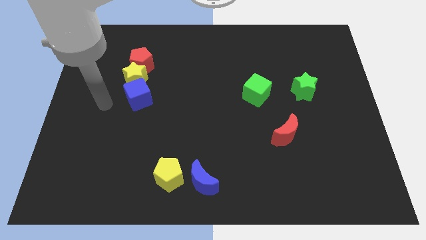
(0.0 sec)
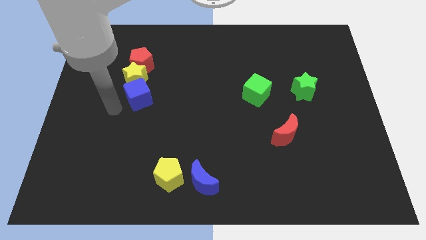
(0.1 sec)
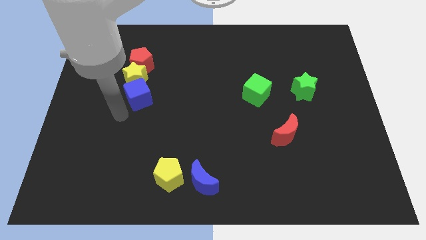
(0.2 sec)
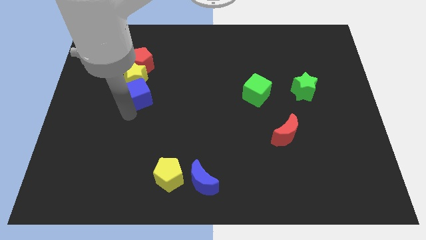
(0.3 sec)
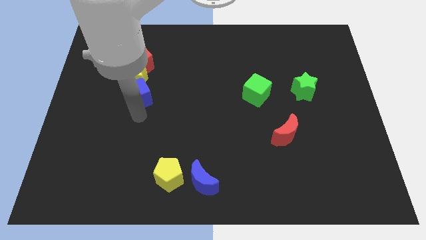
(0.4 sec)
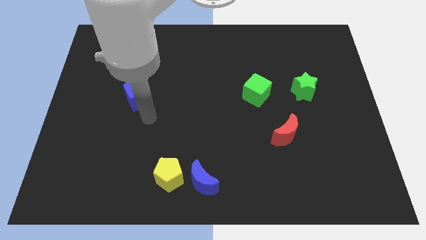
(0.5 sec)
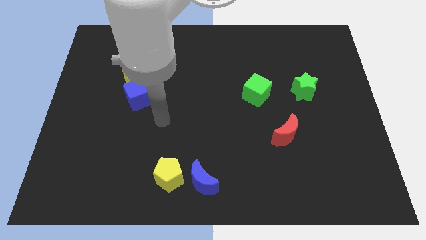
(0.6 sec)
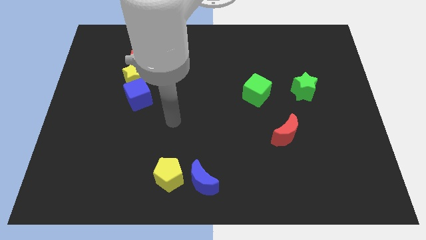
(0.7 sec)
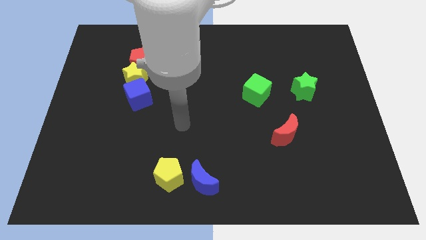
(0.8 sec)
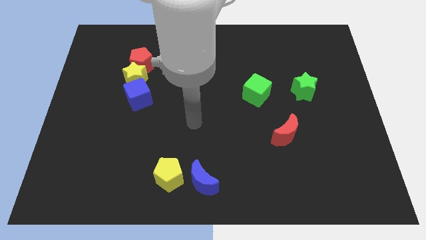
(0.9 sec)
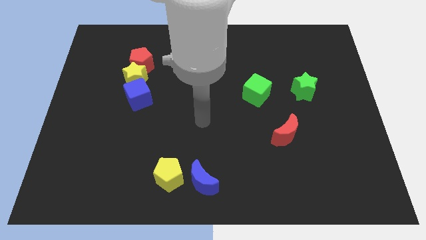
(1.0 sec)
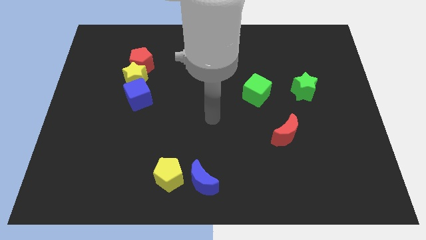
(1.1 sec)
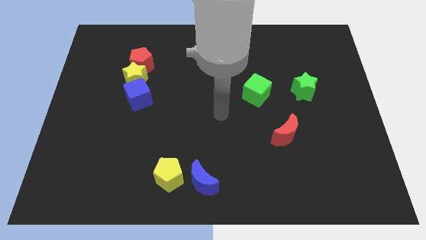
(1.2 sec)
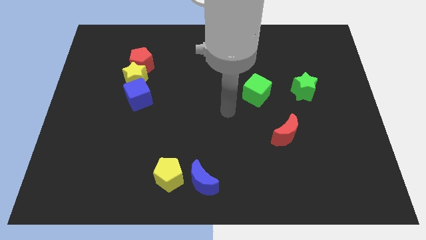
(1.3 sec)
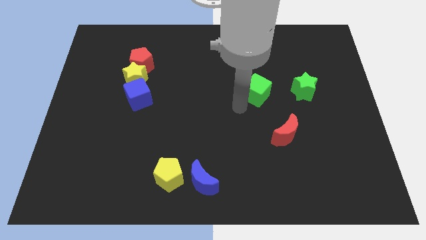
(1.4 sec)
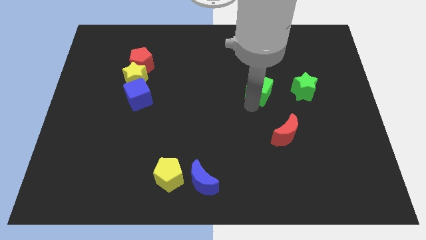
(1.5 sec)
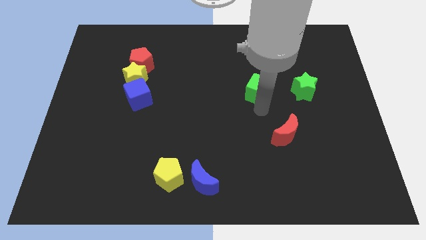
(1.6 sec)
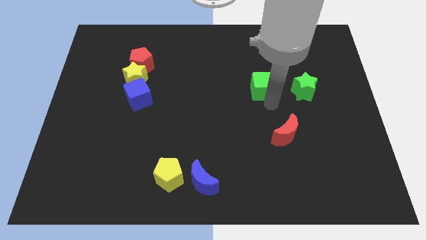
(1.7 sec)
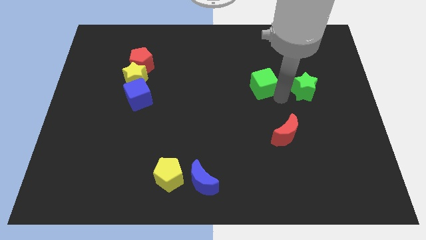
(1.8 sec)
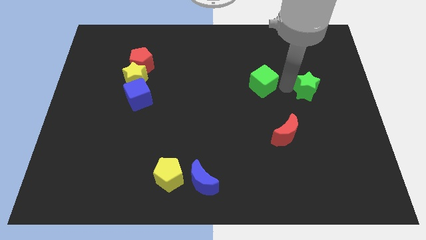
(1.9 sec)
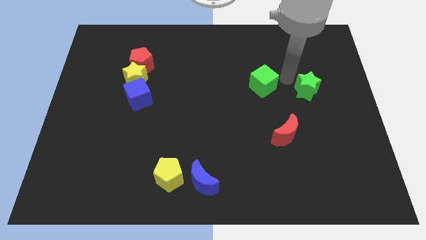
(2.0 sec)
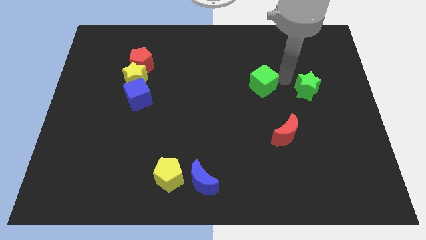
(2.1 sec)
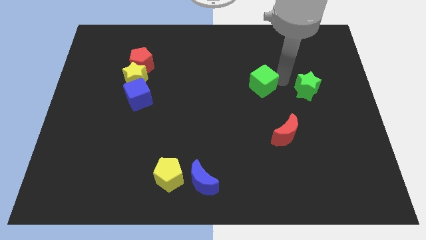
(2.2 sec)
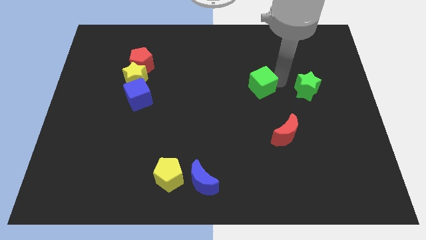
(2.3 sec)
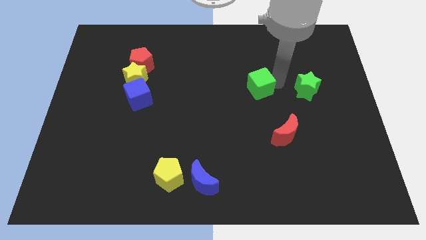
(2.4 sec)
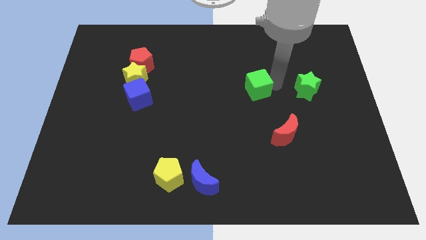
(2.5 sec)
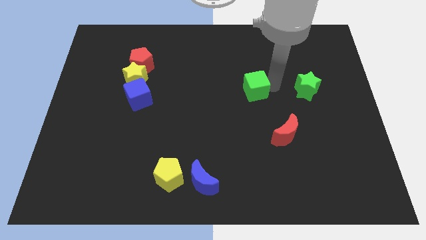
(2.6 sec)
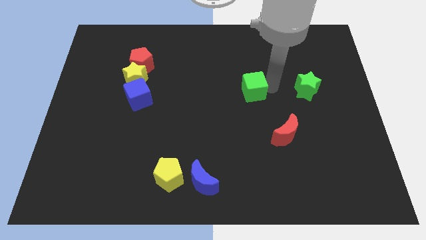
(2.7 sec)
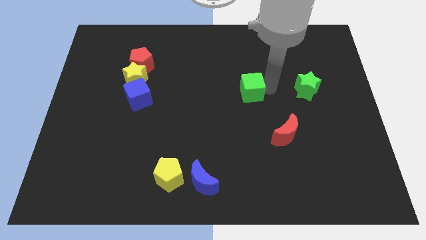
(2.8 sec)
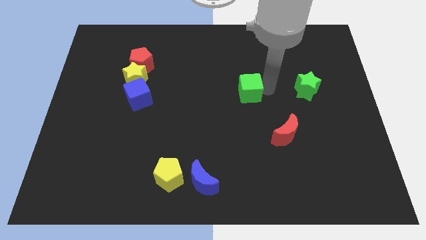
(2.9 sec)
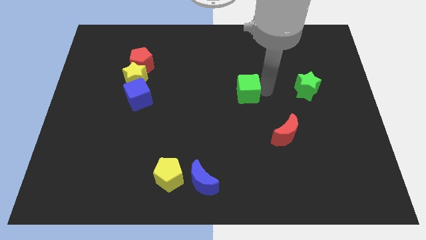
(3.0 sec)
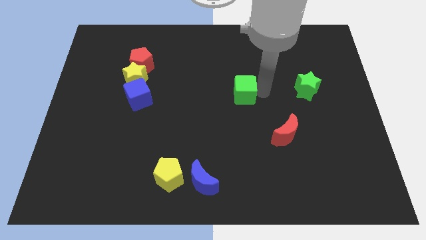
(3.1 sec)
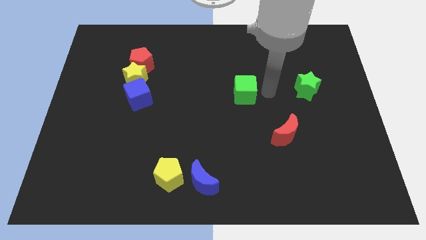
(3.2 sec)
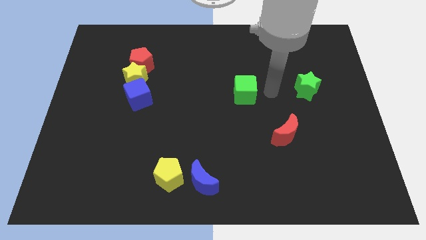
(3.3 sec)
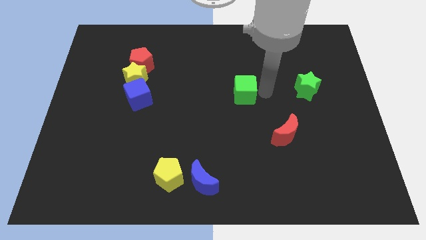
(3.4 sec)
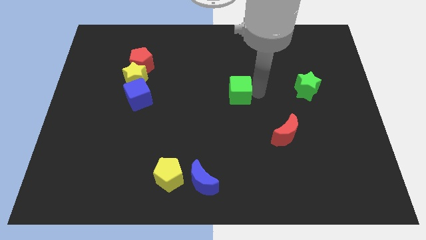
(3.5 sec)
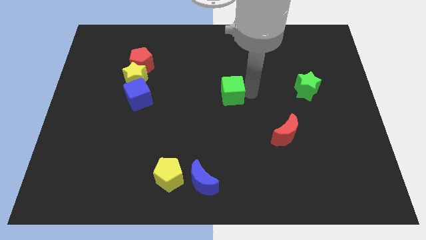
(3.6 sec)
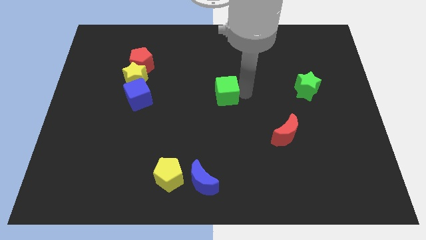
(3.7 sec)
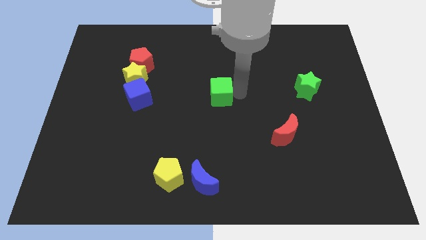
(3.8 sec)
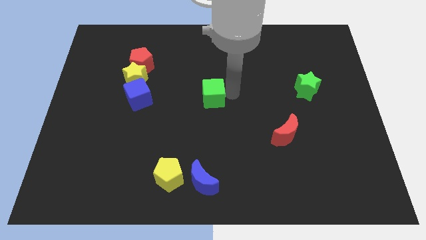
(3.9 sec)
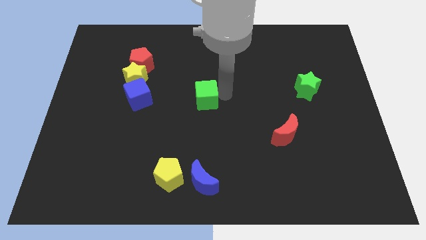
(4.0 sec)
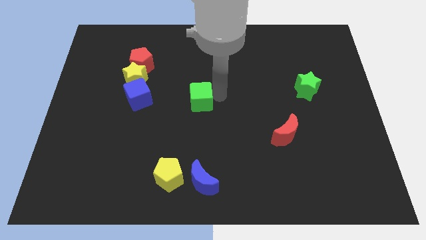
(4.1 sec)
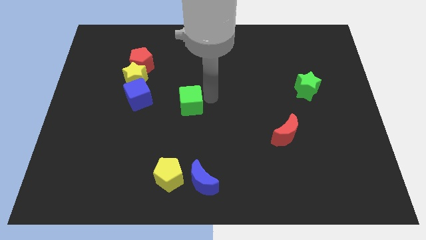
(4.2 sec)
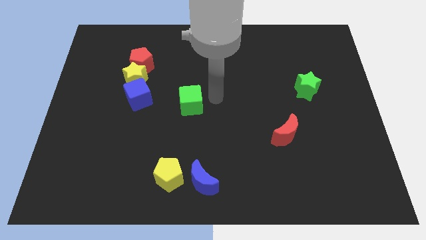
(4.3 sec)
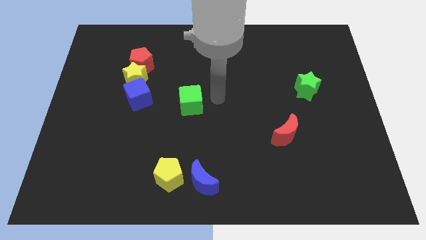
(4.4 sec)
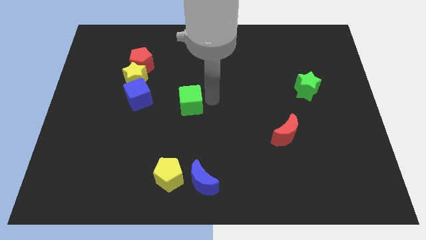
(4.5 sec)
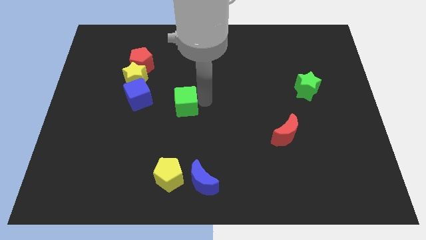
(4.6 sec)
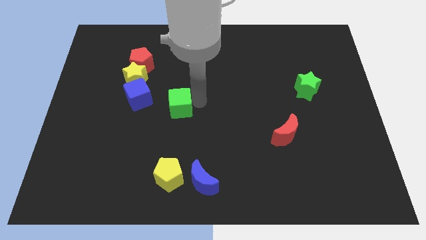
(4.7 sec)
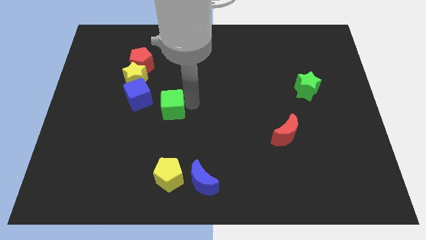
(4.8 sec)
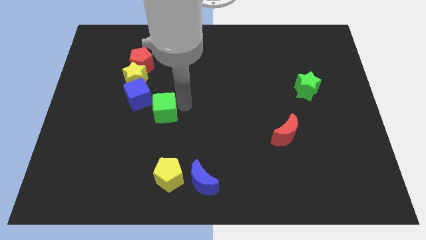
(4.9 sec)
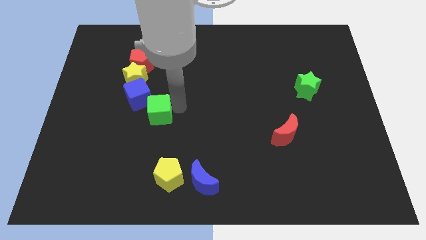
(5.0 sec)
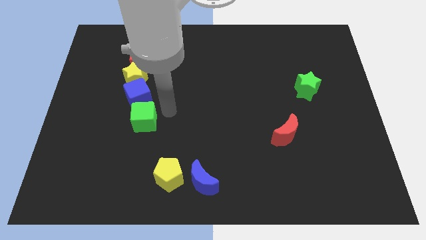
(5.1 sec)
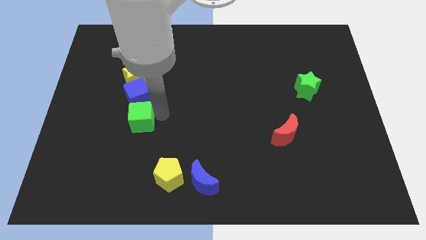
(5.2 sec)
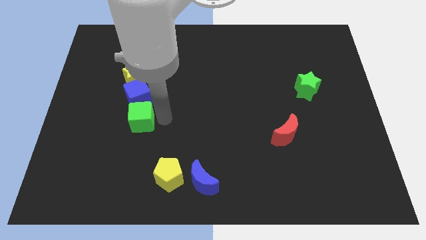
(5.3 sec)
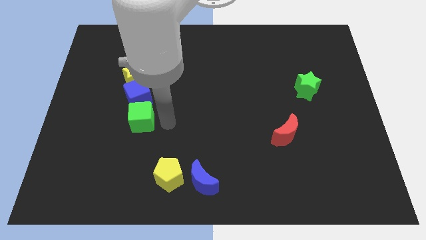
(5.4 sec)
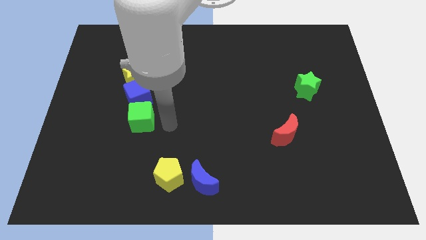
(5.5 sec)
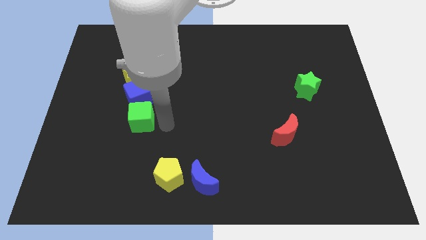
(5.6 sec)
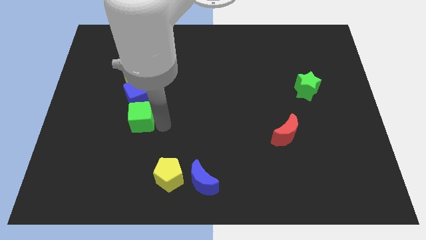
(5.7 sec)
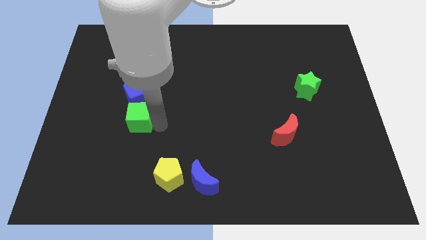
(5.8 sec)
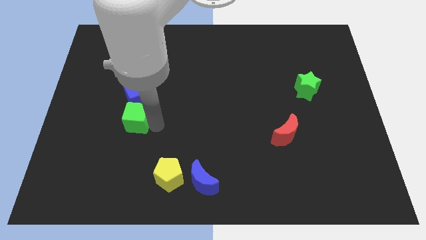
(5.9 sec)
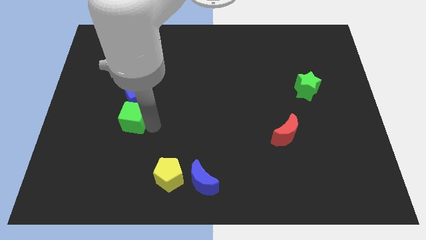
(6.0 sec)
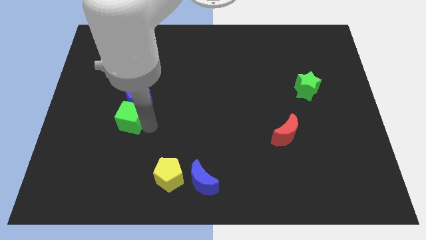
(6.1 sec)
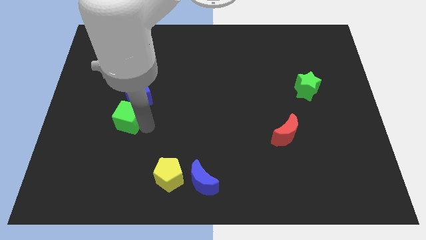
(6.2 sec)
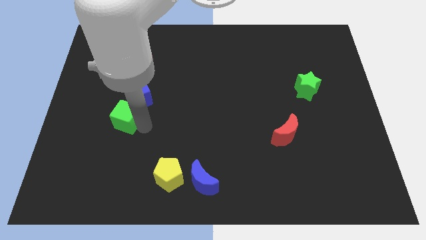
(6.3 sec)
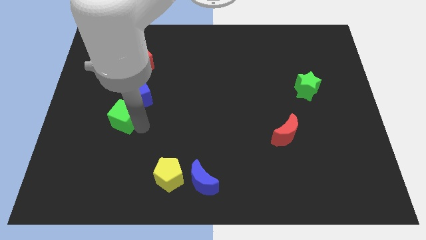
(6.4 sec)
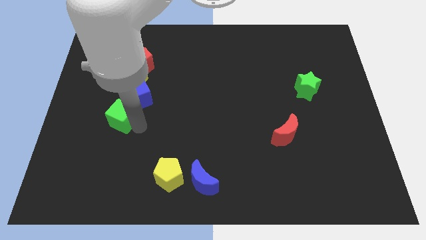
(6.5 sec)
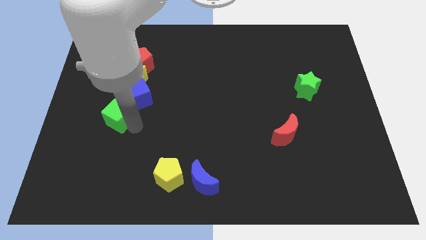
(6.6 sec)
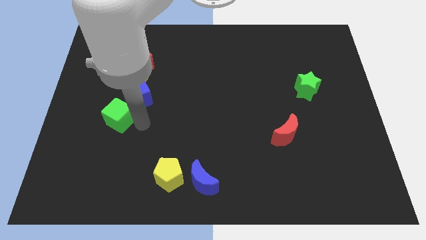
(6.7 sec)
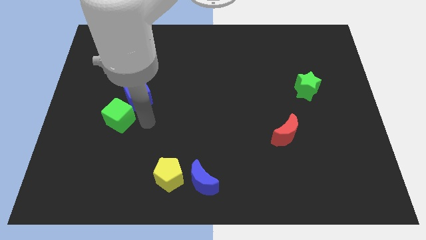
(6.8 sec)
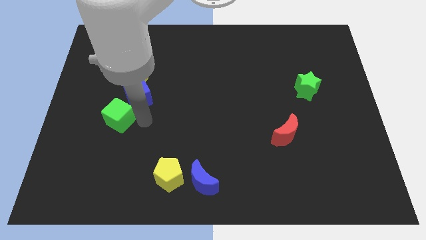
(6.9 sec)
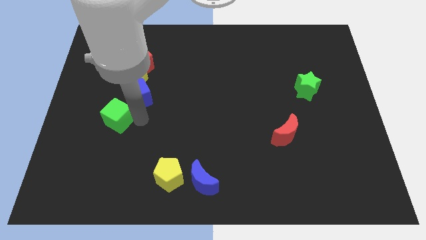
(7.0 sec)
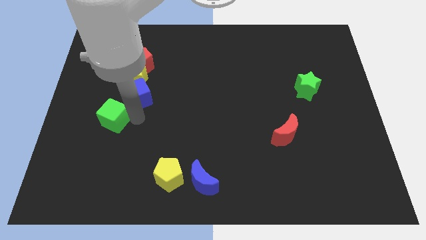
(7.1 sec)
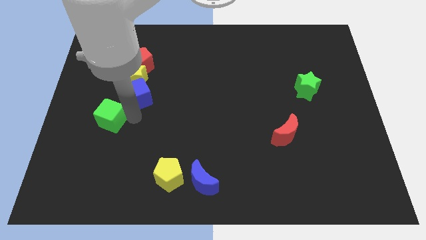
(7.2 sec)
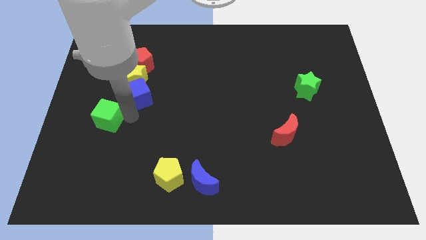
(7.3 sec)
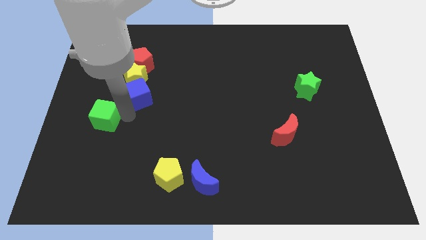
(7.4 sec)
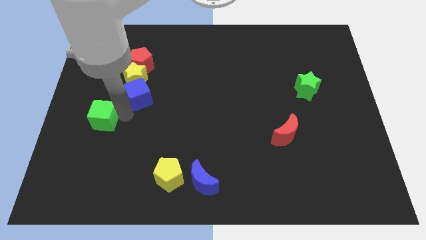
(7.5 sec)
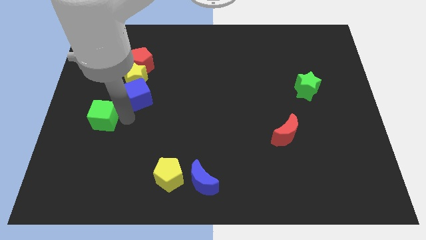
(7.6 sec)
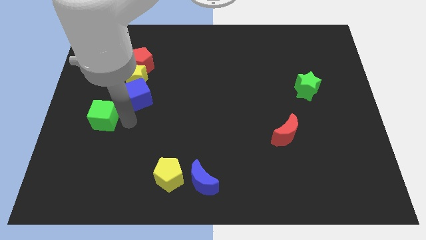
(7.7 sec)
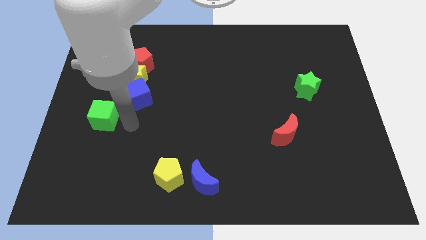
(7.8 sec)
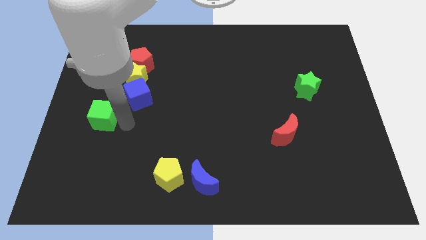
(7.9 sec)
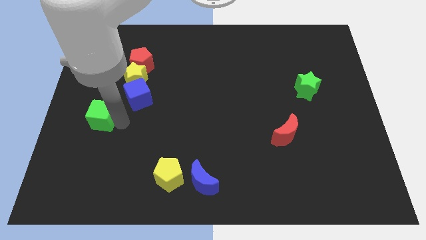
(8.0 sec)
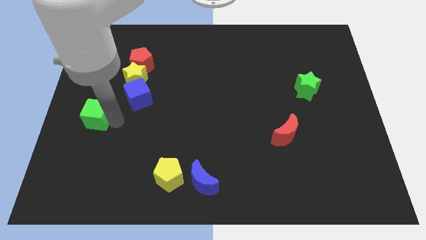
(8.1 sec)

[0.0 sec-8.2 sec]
move the green cube to the left side
